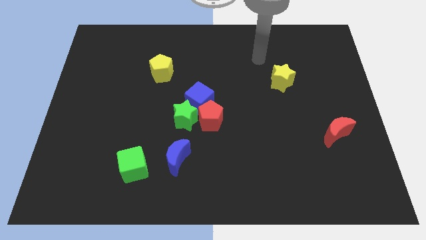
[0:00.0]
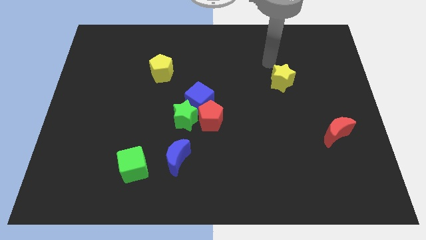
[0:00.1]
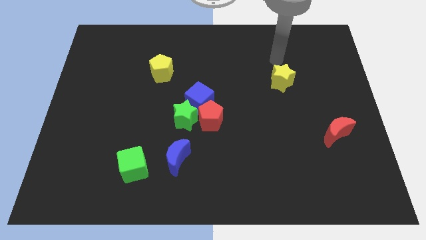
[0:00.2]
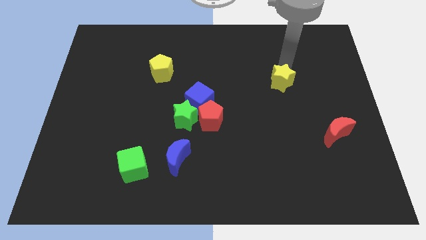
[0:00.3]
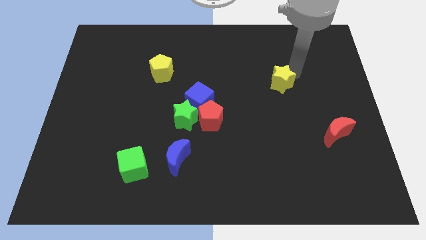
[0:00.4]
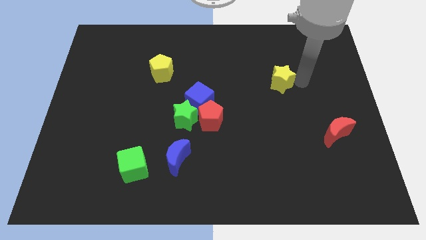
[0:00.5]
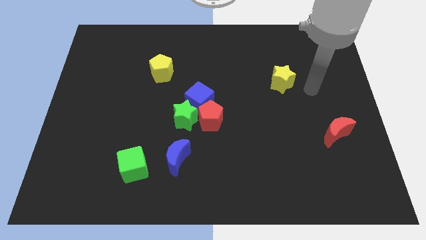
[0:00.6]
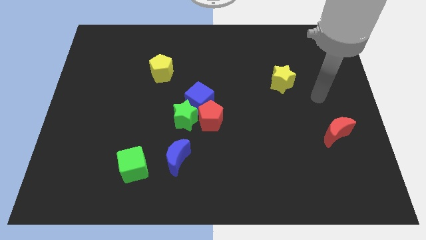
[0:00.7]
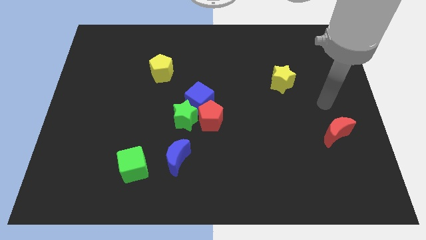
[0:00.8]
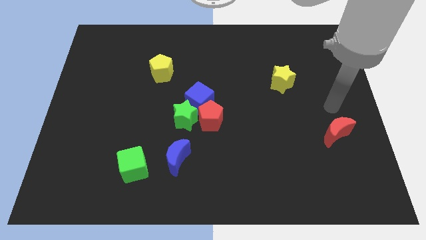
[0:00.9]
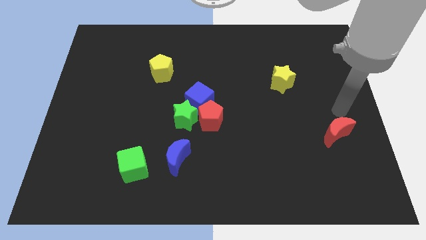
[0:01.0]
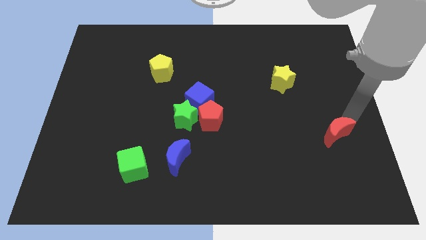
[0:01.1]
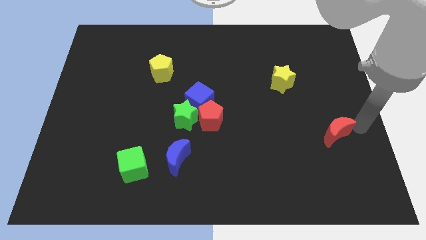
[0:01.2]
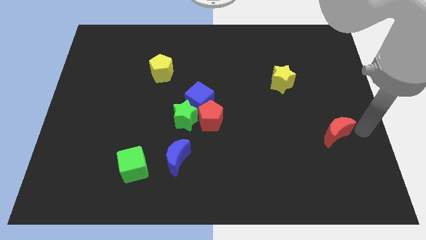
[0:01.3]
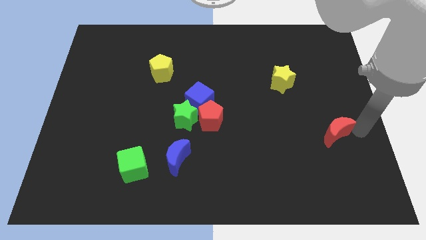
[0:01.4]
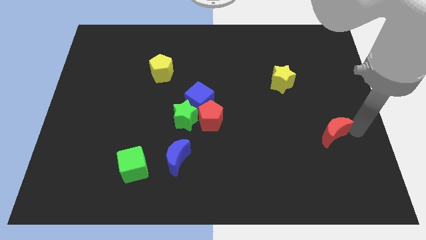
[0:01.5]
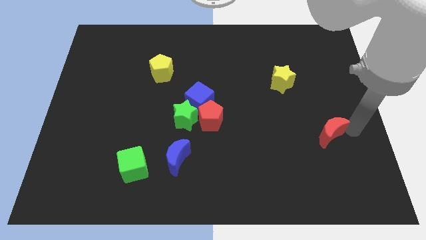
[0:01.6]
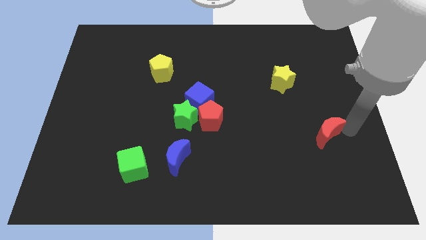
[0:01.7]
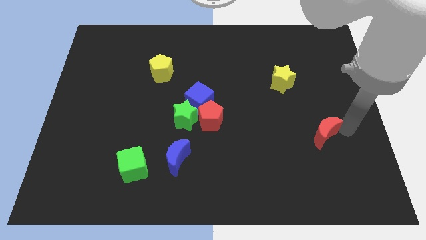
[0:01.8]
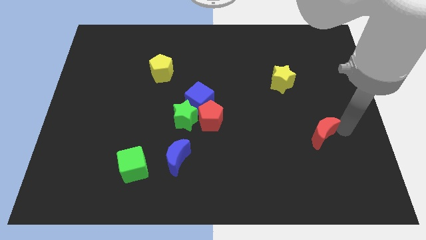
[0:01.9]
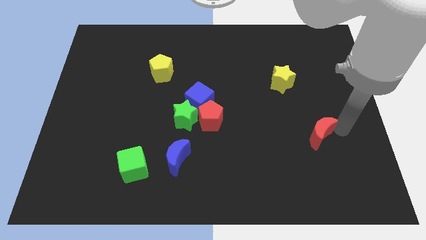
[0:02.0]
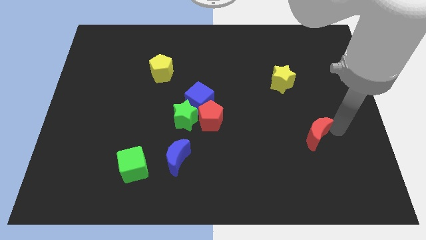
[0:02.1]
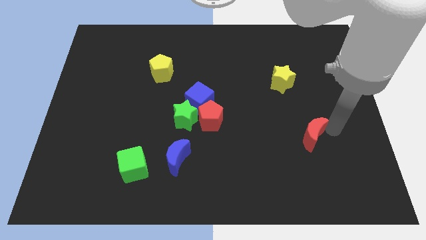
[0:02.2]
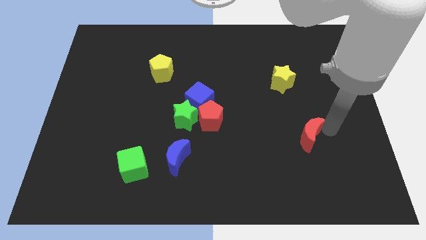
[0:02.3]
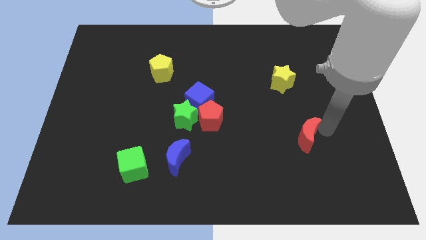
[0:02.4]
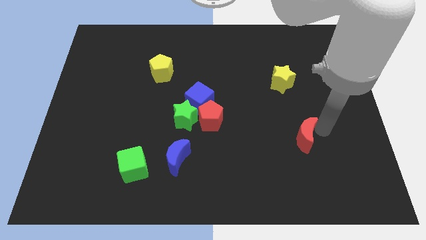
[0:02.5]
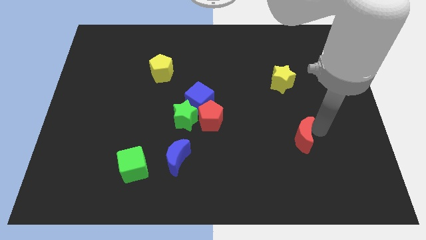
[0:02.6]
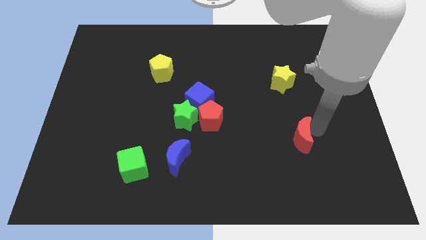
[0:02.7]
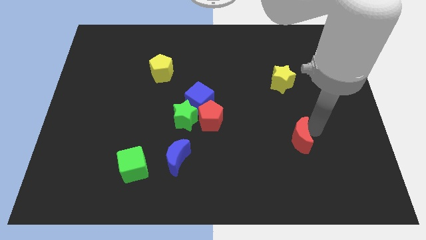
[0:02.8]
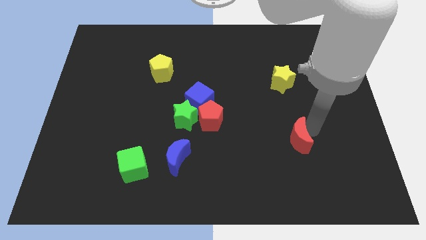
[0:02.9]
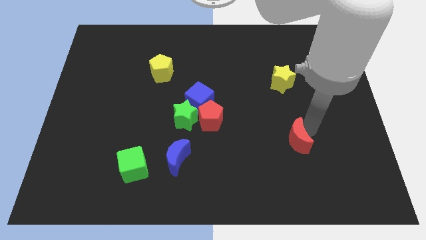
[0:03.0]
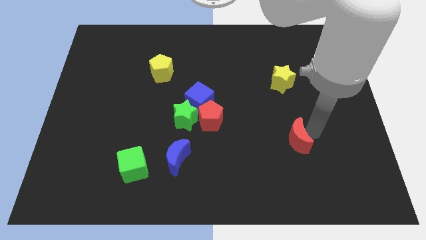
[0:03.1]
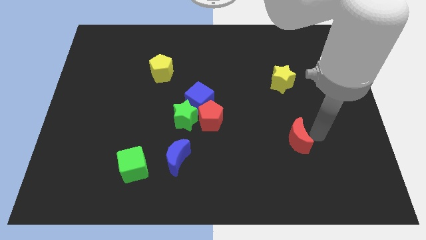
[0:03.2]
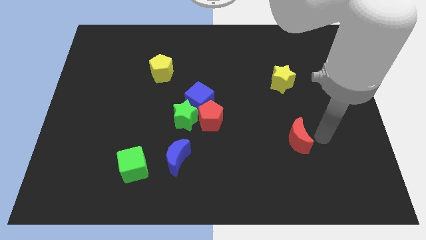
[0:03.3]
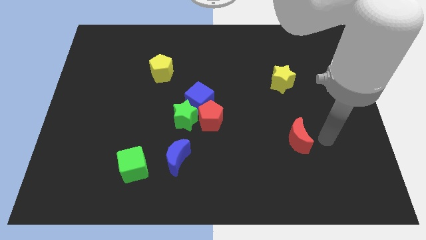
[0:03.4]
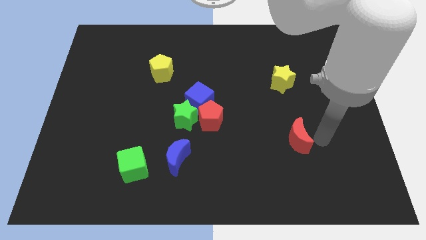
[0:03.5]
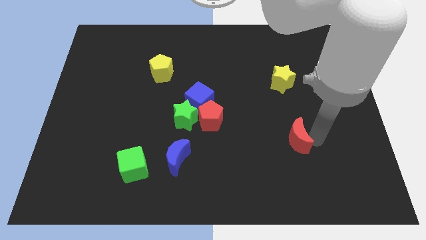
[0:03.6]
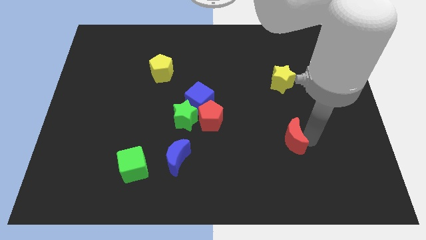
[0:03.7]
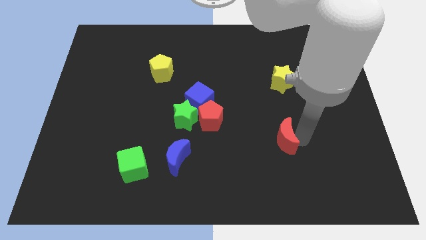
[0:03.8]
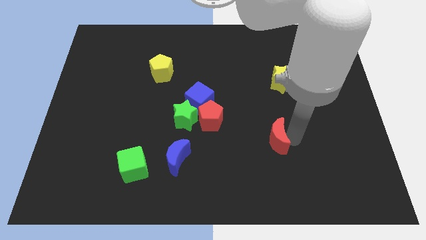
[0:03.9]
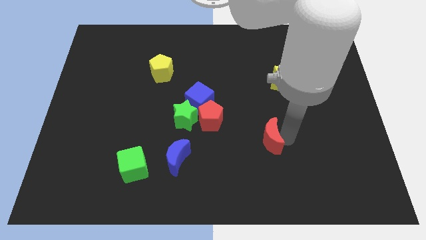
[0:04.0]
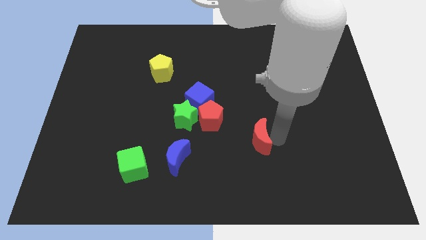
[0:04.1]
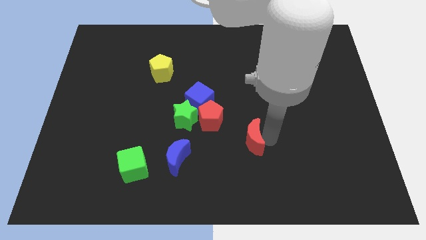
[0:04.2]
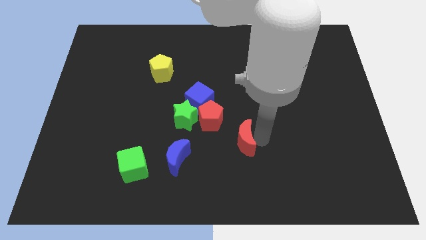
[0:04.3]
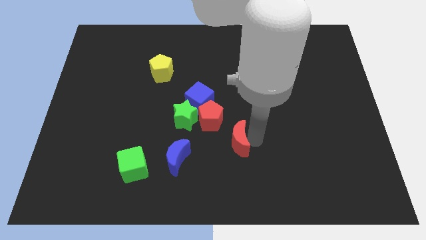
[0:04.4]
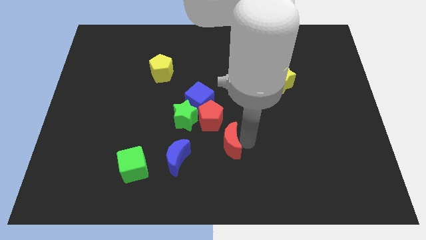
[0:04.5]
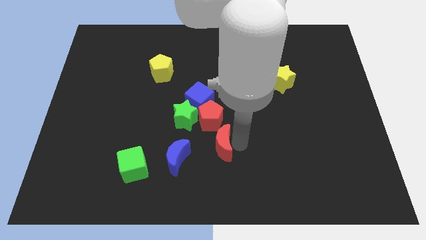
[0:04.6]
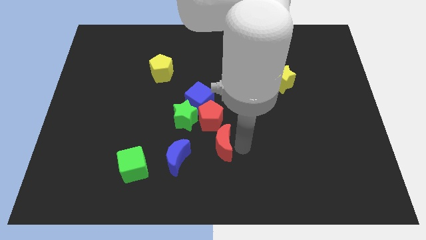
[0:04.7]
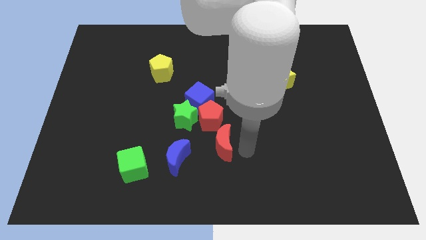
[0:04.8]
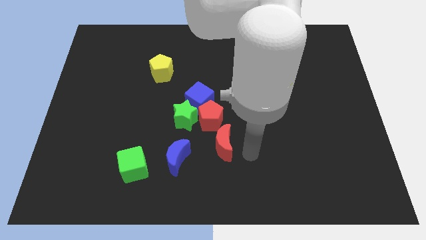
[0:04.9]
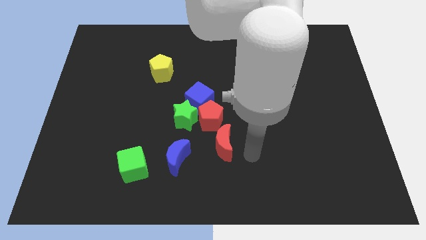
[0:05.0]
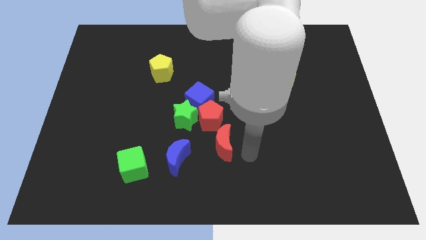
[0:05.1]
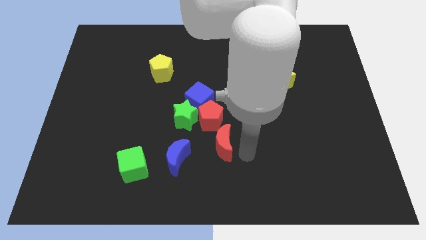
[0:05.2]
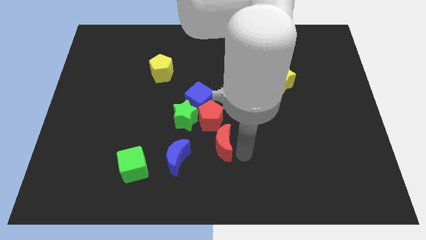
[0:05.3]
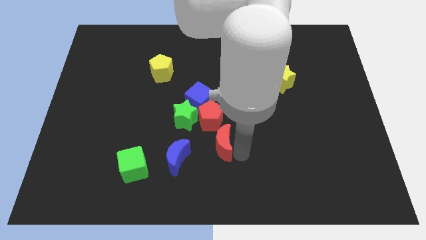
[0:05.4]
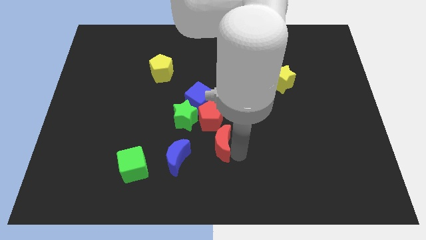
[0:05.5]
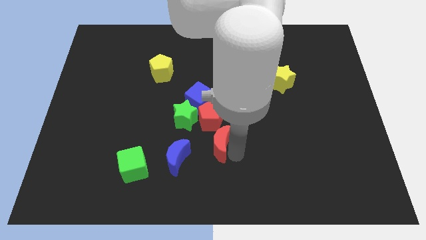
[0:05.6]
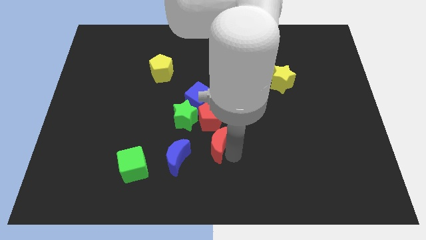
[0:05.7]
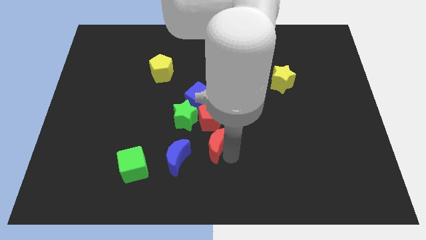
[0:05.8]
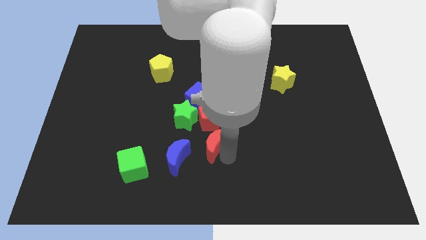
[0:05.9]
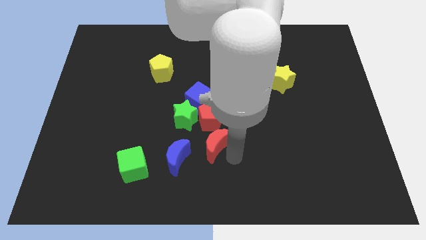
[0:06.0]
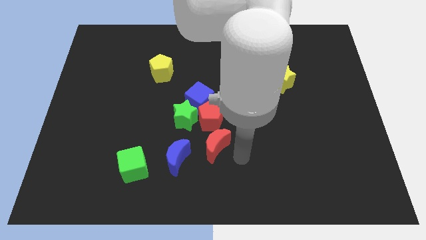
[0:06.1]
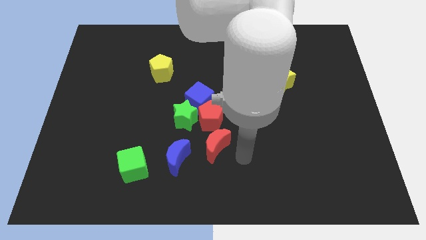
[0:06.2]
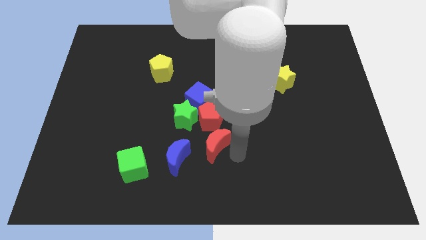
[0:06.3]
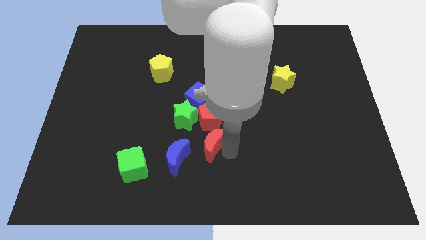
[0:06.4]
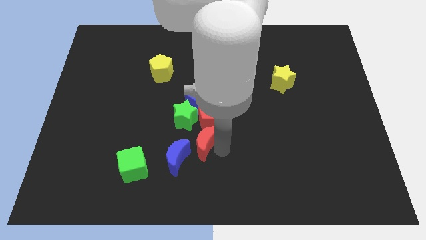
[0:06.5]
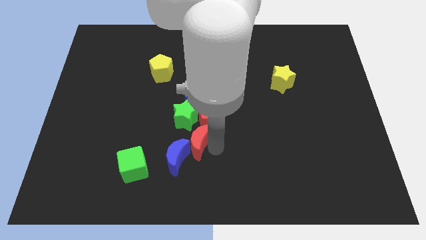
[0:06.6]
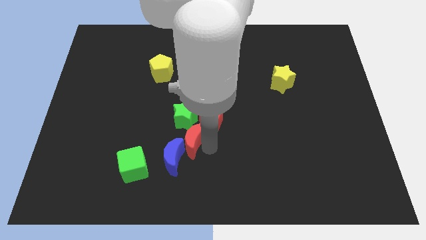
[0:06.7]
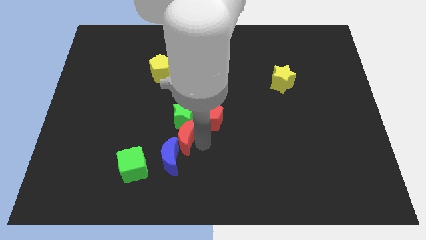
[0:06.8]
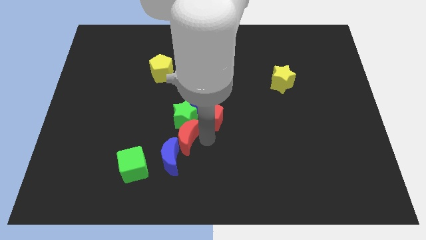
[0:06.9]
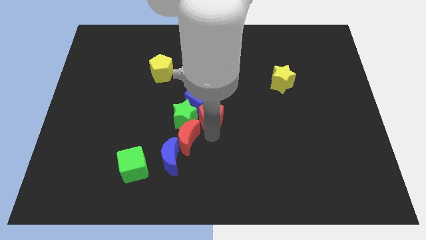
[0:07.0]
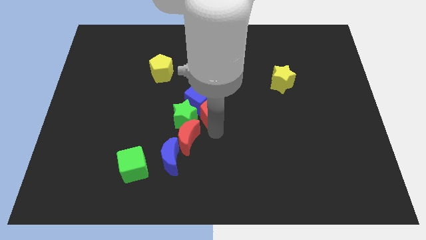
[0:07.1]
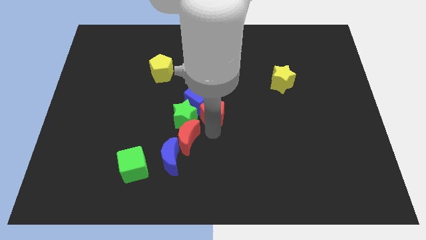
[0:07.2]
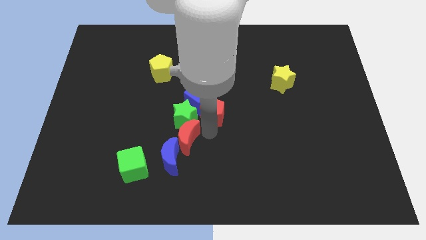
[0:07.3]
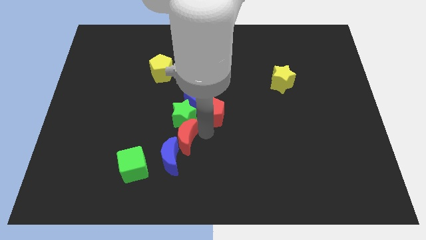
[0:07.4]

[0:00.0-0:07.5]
slide the red moon to the top right of the green cube
